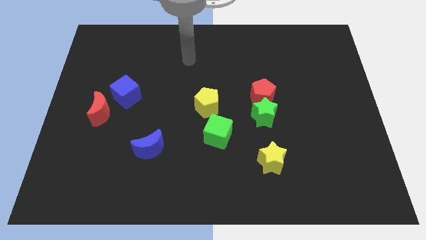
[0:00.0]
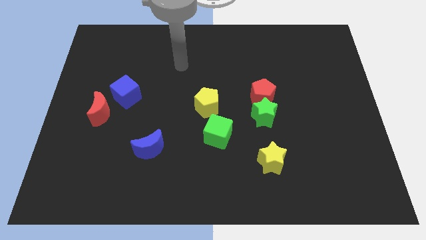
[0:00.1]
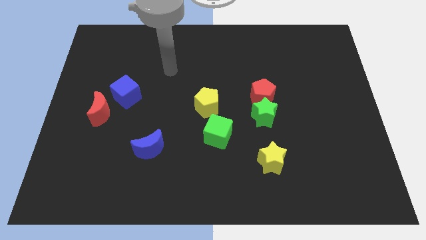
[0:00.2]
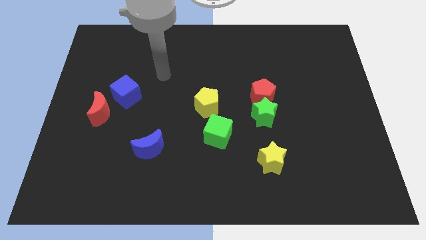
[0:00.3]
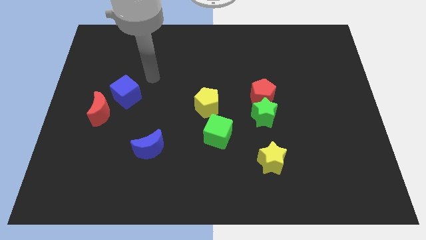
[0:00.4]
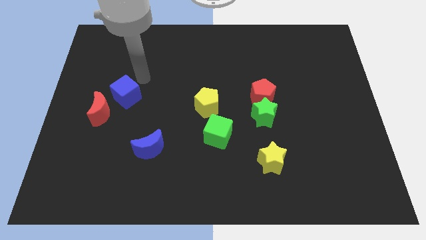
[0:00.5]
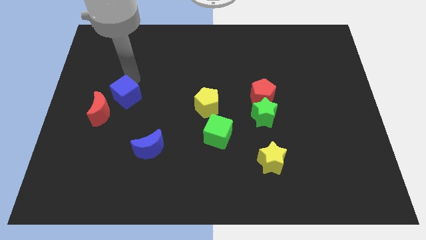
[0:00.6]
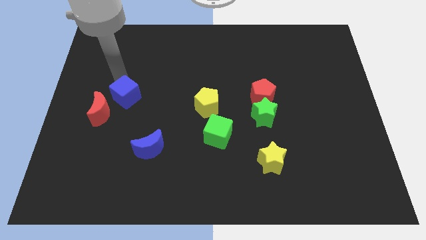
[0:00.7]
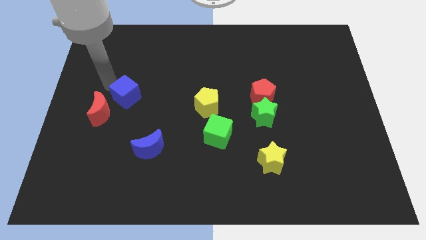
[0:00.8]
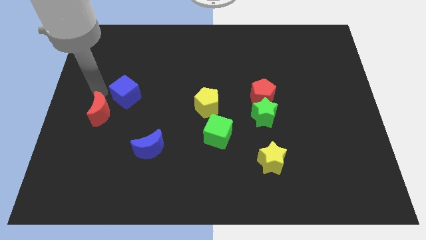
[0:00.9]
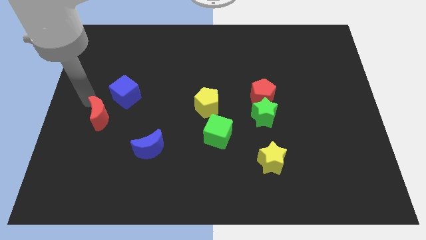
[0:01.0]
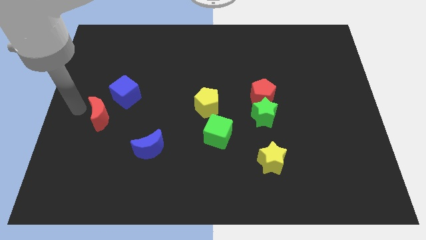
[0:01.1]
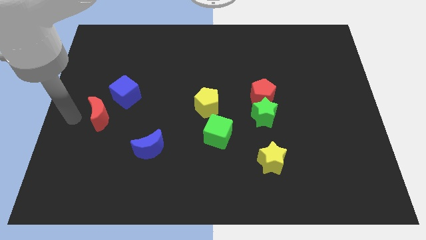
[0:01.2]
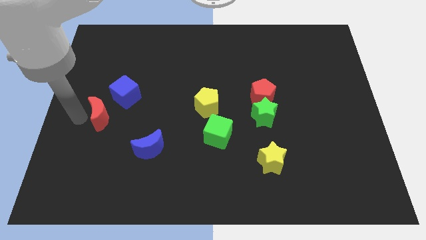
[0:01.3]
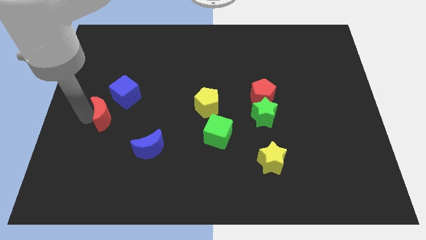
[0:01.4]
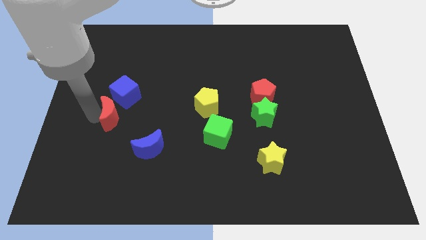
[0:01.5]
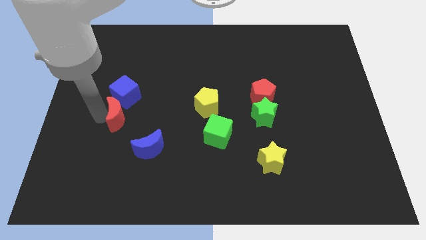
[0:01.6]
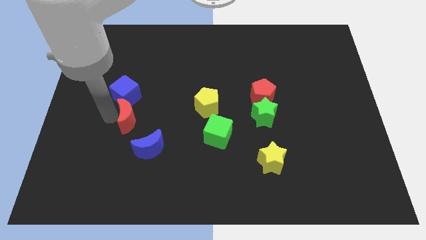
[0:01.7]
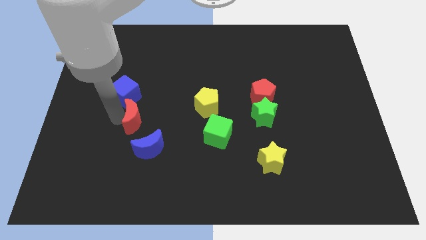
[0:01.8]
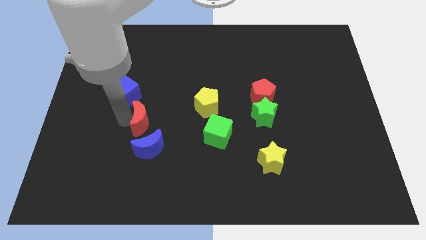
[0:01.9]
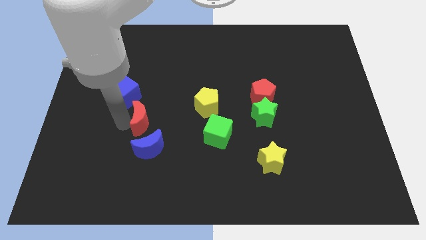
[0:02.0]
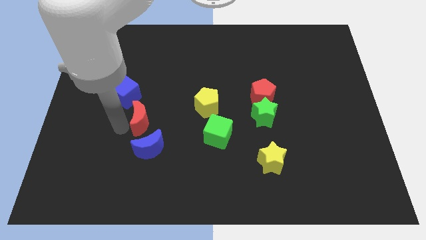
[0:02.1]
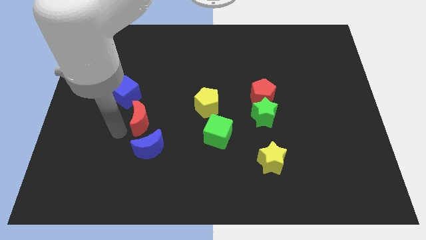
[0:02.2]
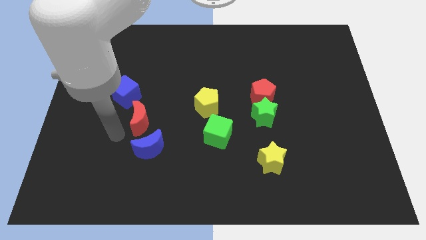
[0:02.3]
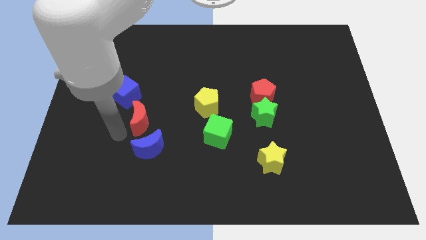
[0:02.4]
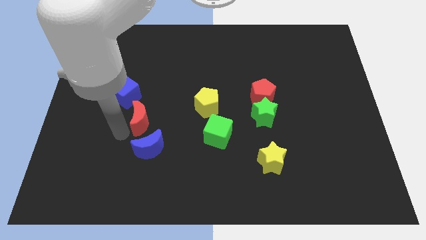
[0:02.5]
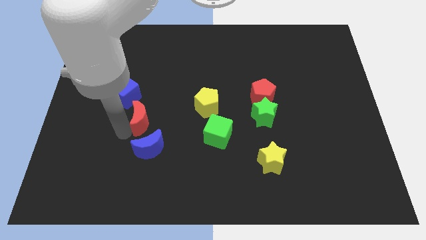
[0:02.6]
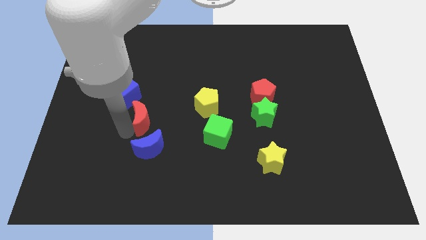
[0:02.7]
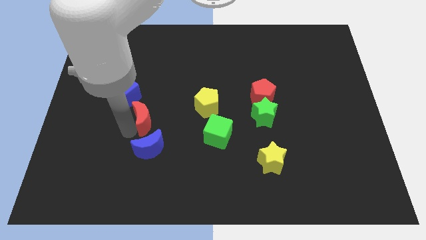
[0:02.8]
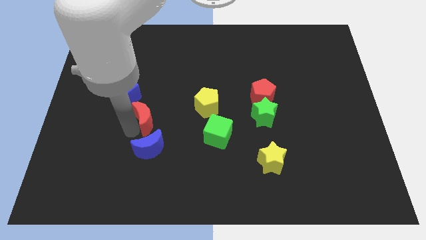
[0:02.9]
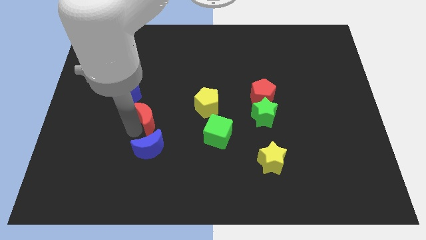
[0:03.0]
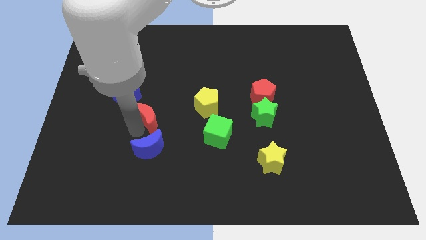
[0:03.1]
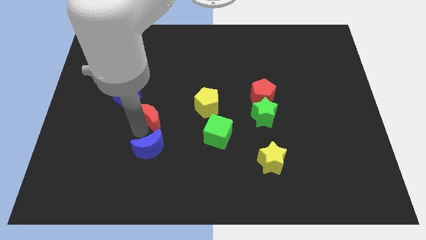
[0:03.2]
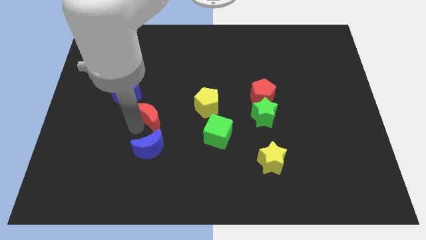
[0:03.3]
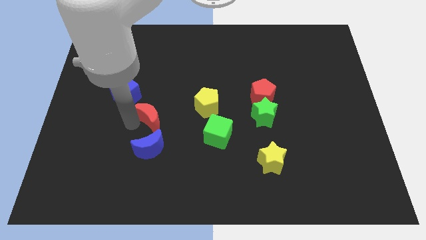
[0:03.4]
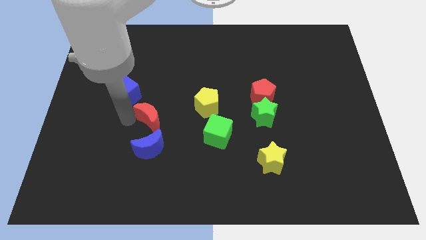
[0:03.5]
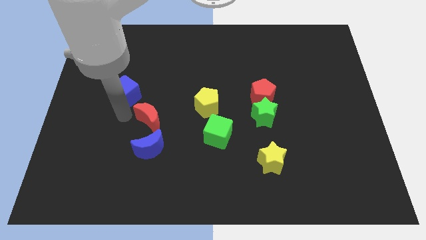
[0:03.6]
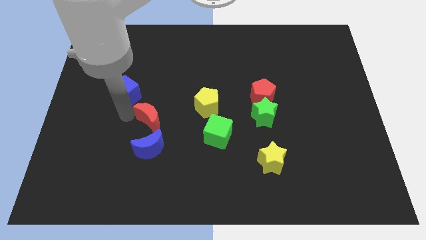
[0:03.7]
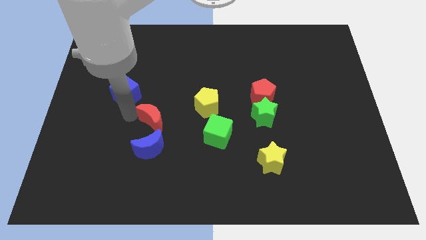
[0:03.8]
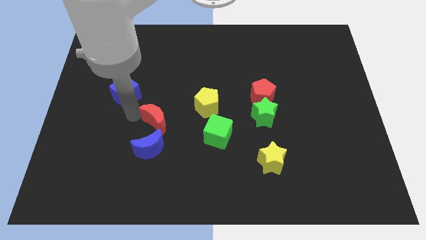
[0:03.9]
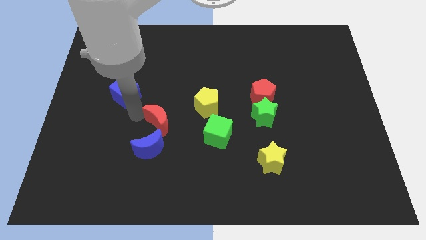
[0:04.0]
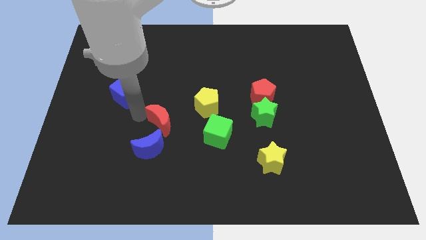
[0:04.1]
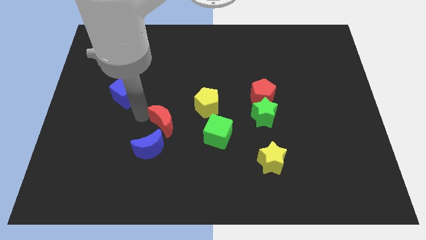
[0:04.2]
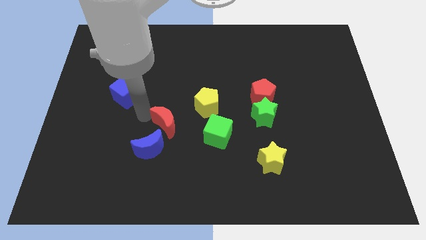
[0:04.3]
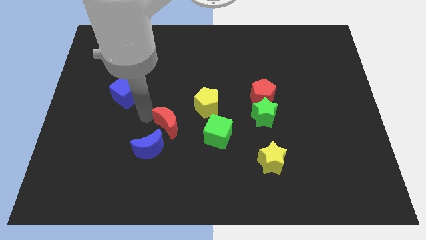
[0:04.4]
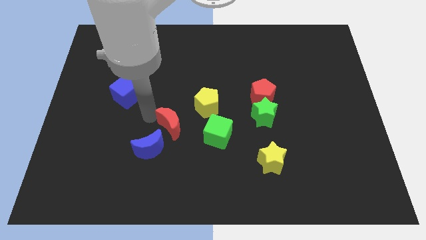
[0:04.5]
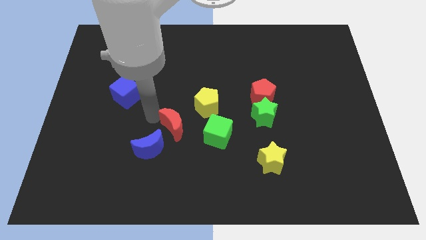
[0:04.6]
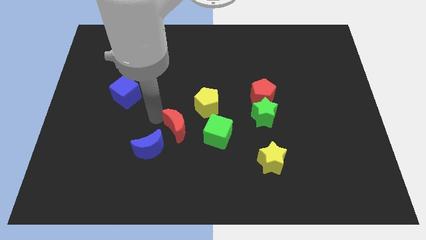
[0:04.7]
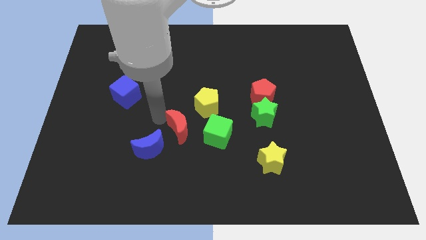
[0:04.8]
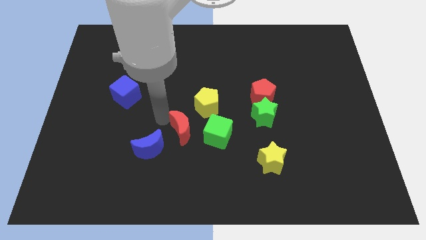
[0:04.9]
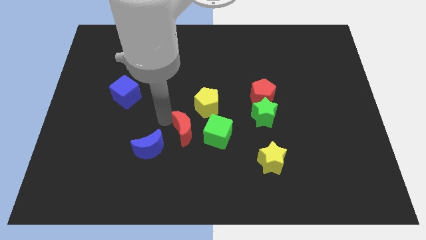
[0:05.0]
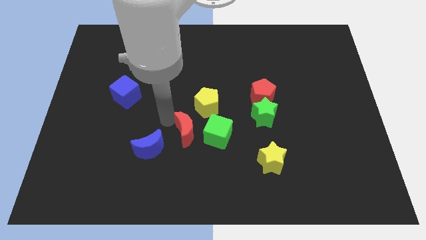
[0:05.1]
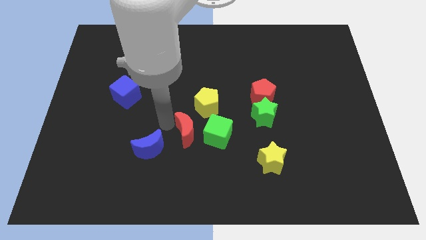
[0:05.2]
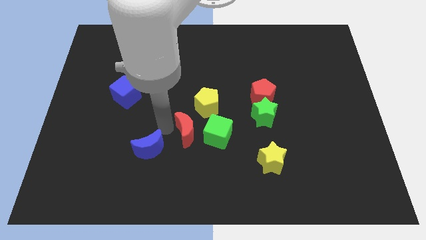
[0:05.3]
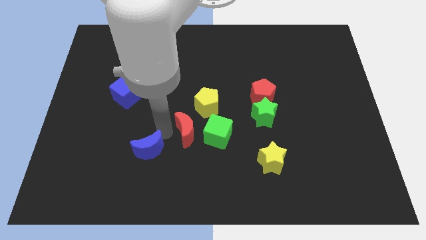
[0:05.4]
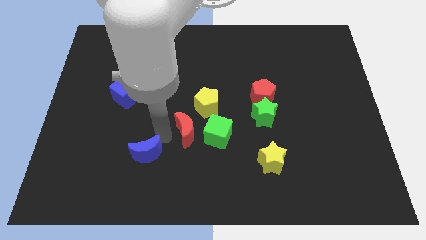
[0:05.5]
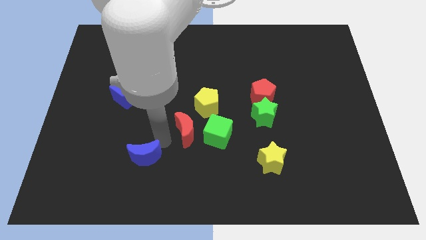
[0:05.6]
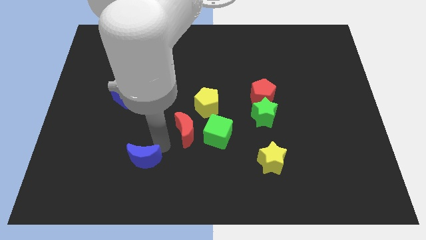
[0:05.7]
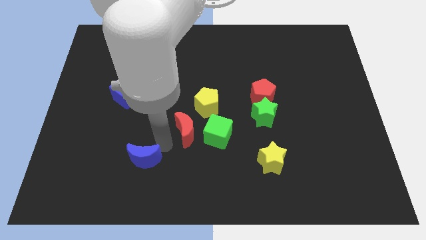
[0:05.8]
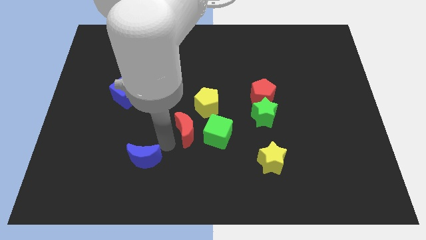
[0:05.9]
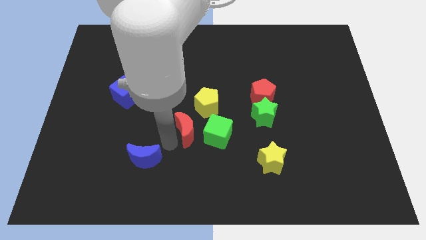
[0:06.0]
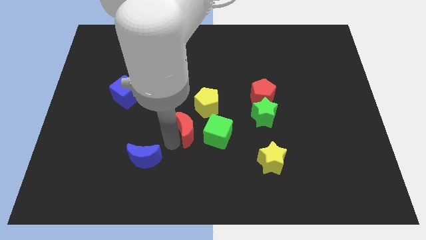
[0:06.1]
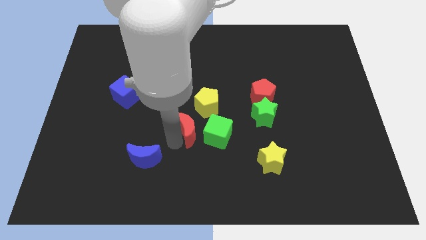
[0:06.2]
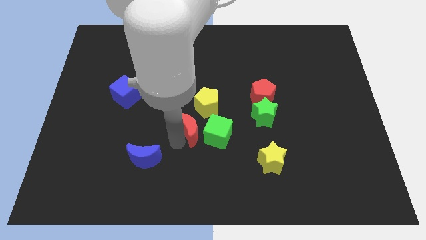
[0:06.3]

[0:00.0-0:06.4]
push the red moon to the right

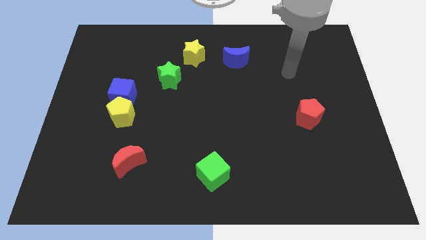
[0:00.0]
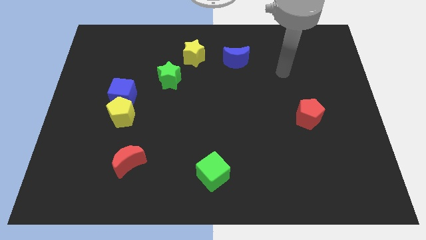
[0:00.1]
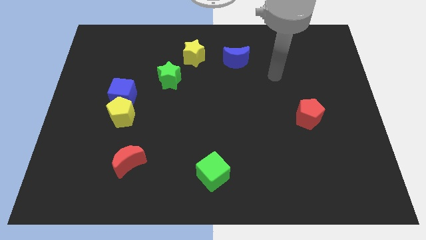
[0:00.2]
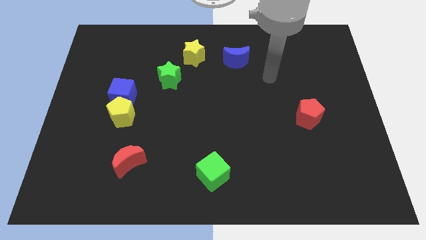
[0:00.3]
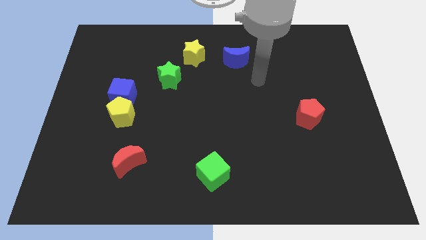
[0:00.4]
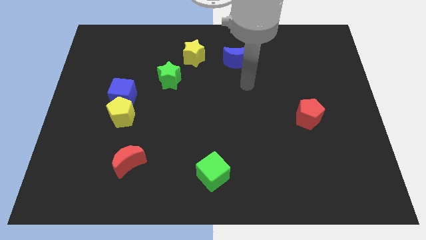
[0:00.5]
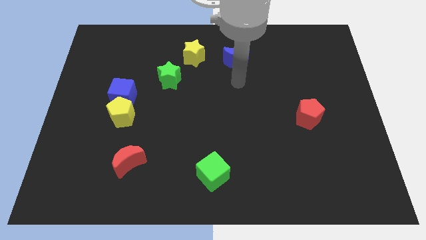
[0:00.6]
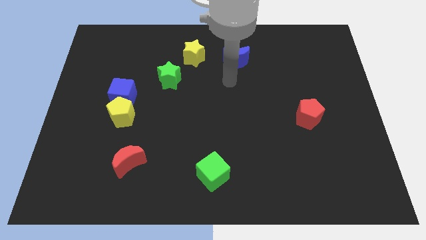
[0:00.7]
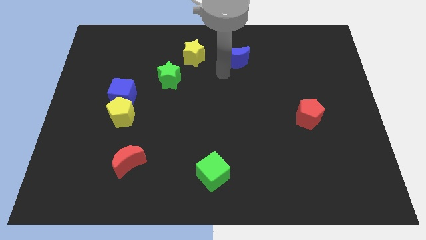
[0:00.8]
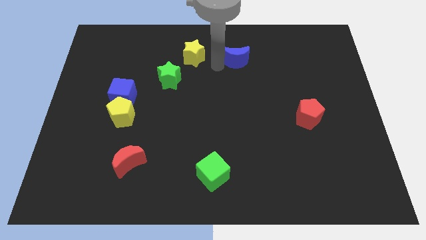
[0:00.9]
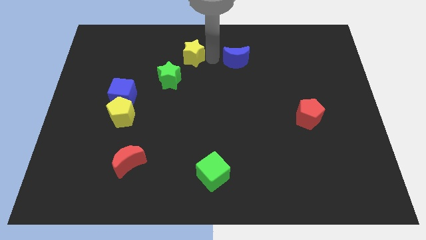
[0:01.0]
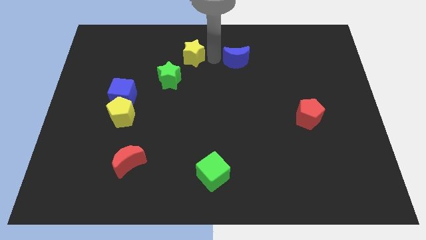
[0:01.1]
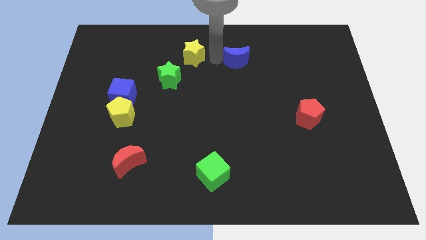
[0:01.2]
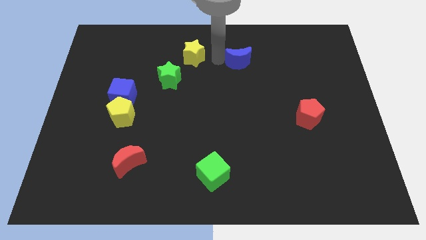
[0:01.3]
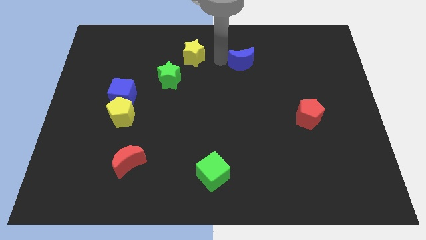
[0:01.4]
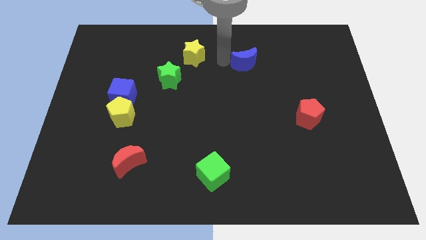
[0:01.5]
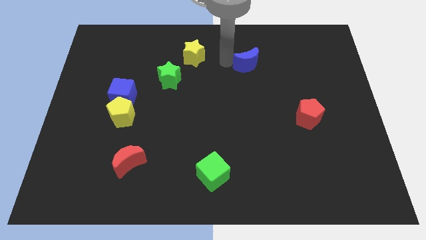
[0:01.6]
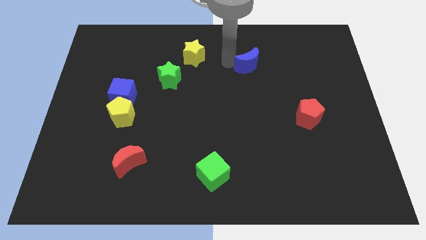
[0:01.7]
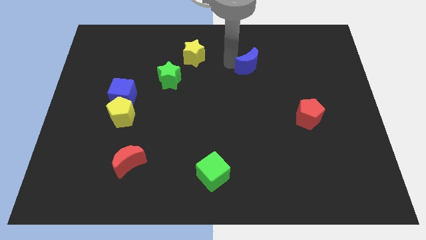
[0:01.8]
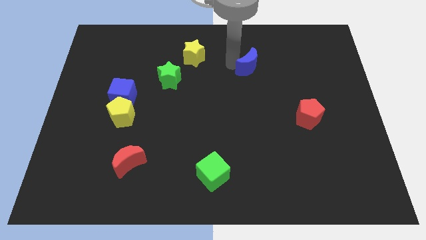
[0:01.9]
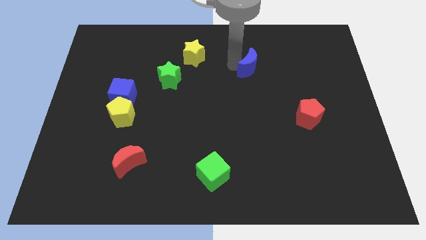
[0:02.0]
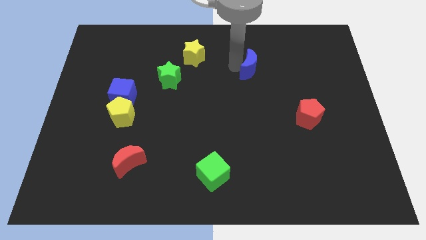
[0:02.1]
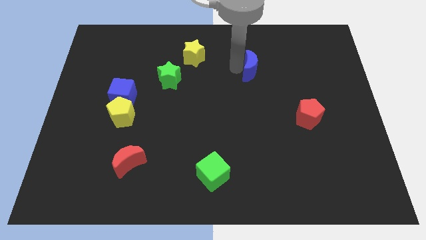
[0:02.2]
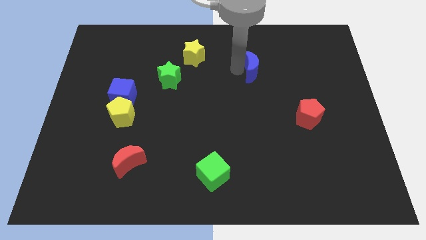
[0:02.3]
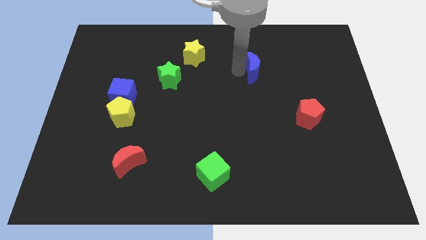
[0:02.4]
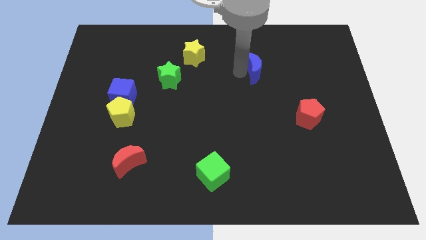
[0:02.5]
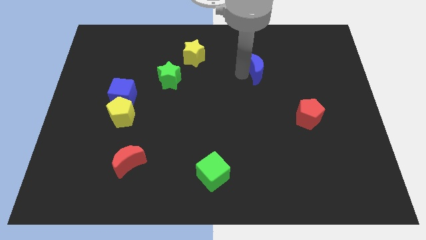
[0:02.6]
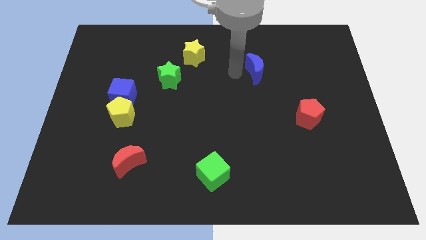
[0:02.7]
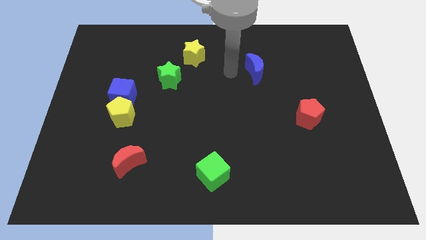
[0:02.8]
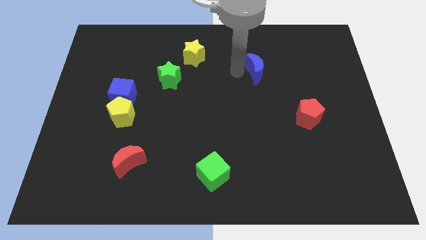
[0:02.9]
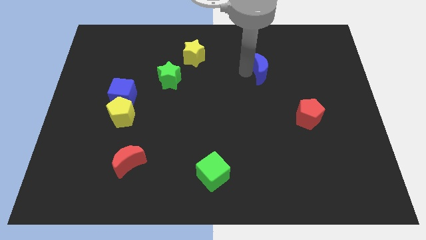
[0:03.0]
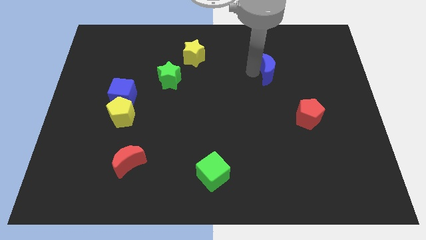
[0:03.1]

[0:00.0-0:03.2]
slightly move the blue moon right
